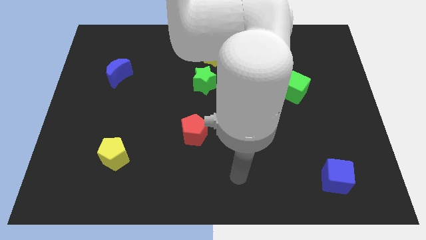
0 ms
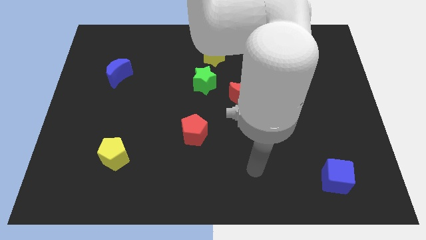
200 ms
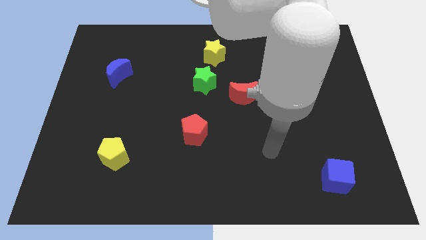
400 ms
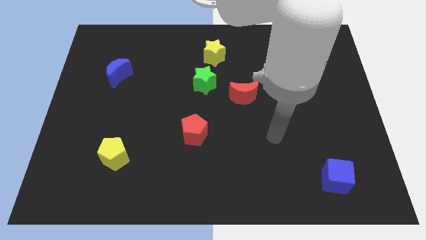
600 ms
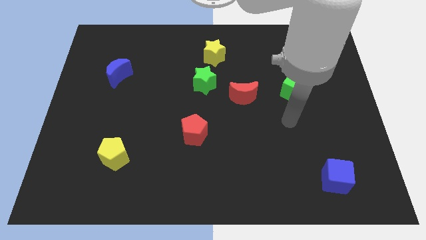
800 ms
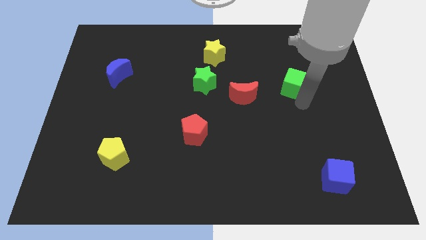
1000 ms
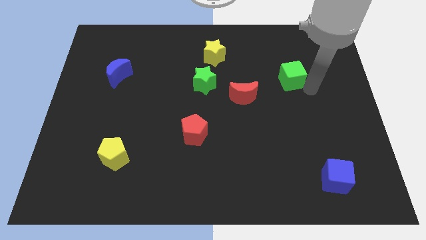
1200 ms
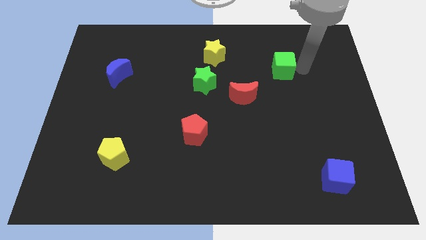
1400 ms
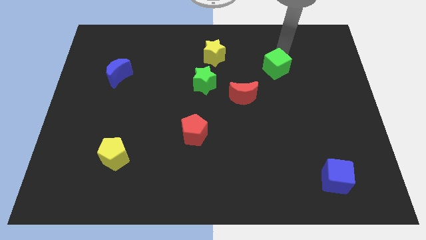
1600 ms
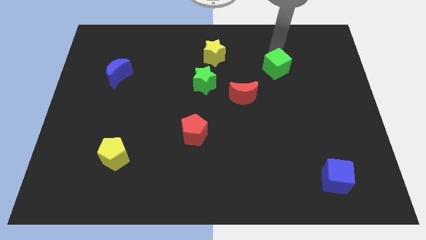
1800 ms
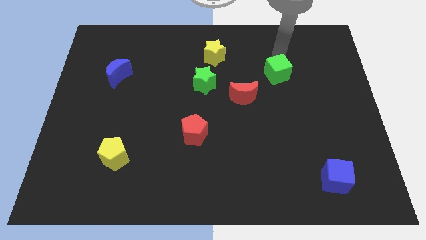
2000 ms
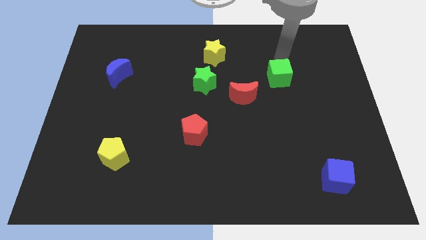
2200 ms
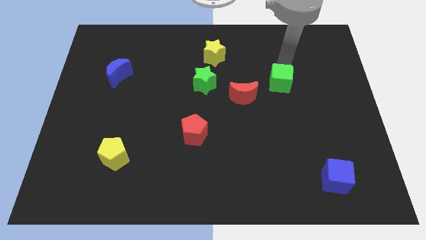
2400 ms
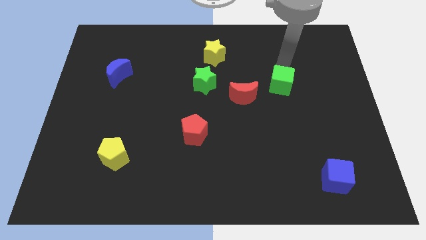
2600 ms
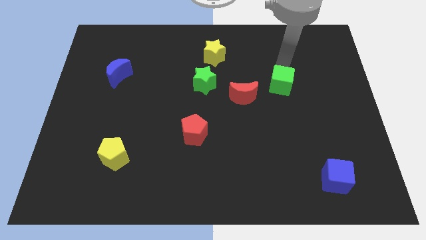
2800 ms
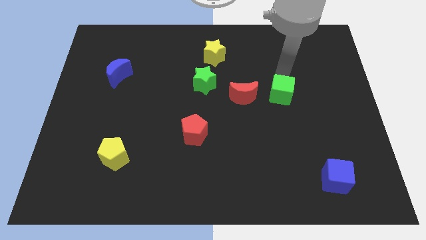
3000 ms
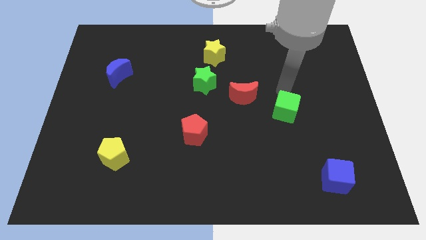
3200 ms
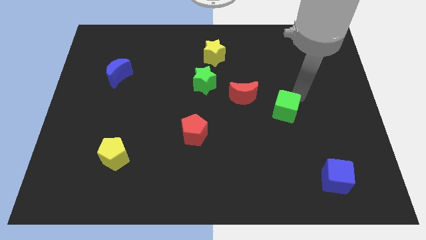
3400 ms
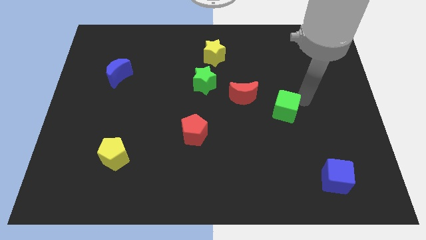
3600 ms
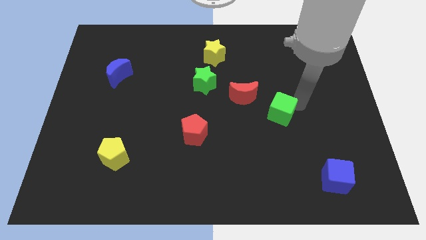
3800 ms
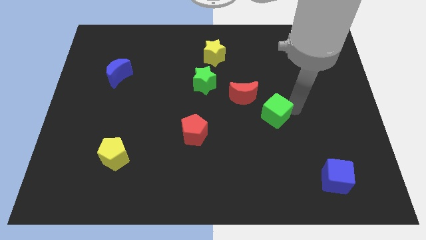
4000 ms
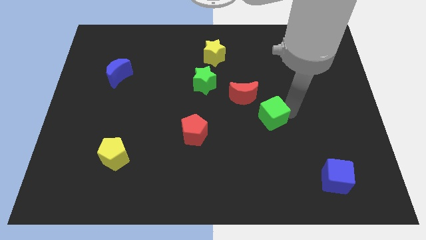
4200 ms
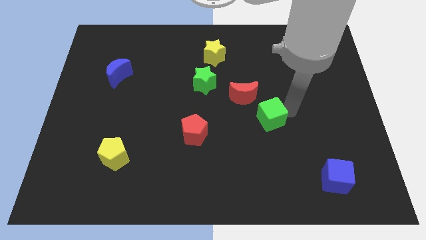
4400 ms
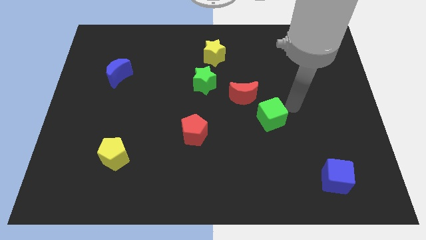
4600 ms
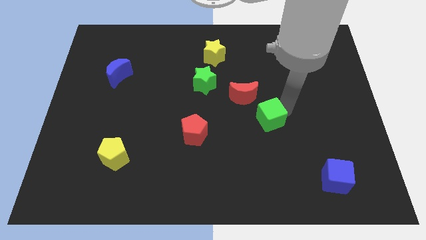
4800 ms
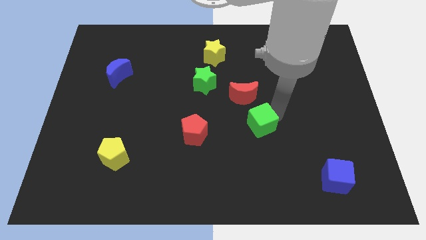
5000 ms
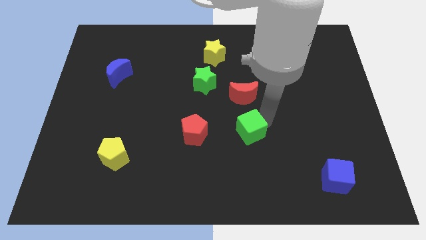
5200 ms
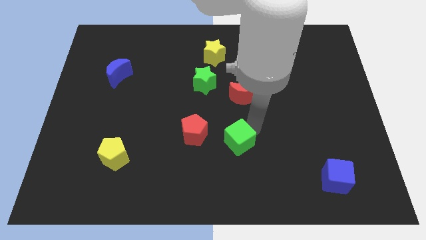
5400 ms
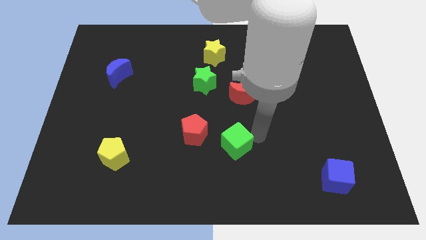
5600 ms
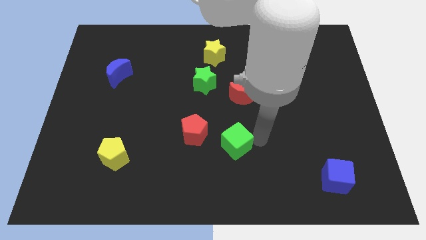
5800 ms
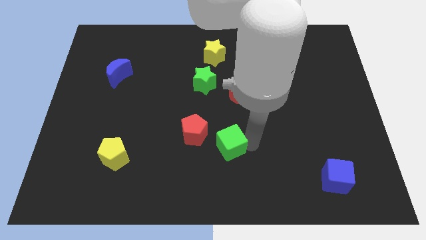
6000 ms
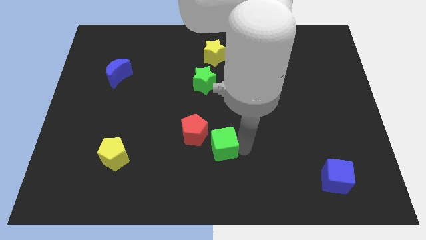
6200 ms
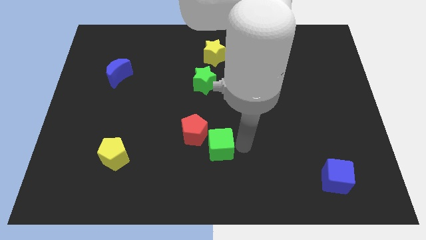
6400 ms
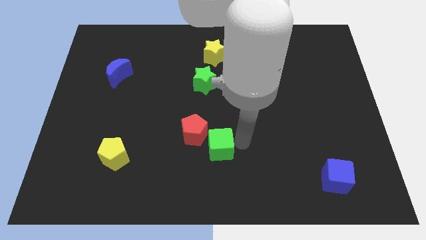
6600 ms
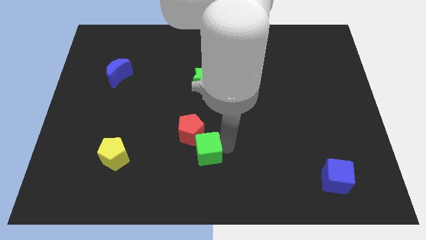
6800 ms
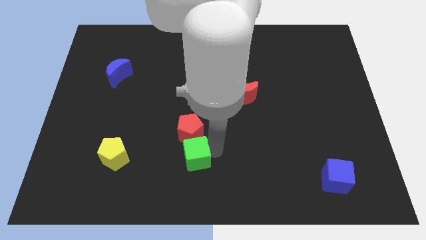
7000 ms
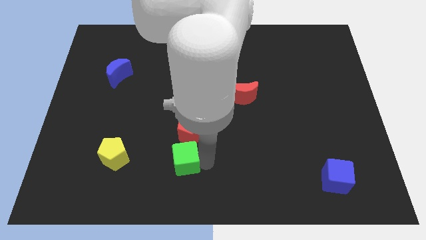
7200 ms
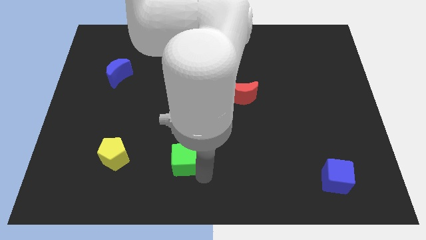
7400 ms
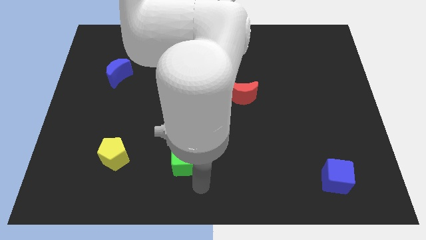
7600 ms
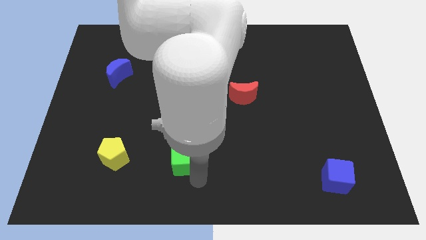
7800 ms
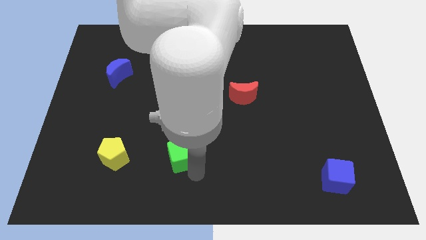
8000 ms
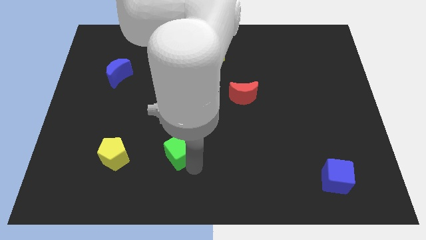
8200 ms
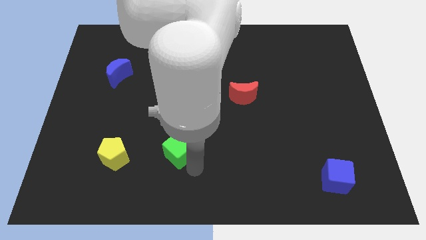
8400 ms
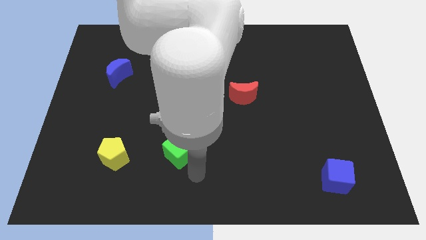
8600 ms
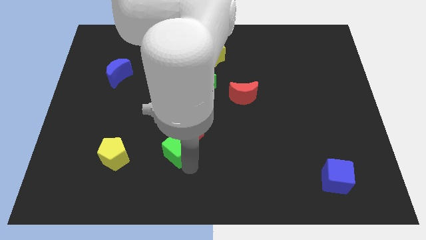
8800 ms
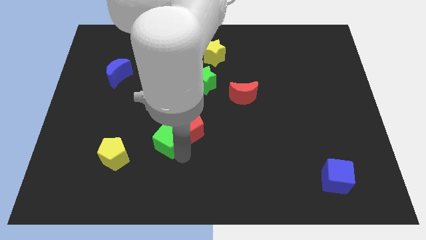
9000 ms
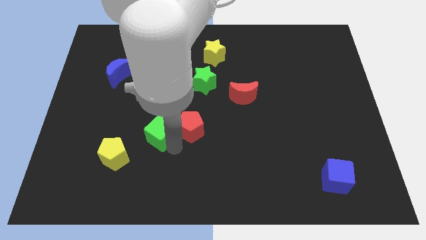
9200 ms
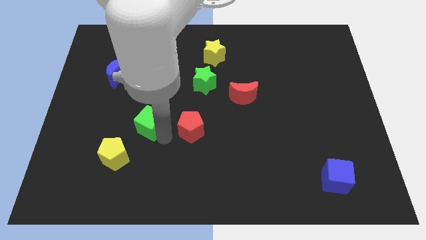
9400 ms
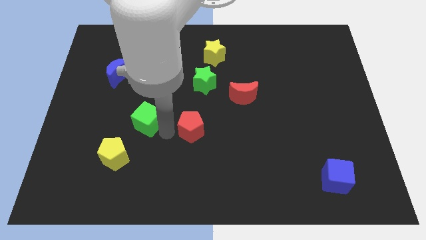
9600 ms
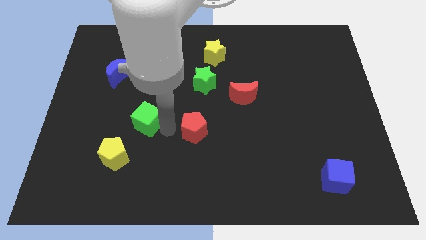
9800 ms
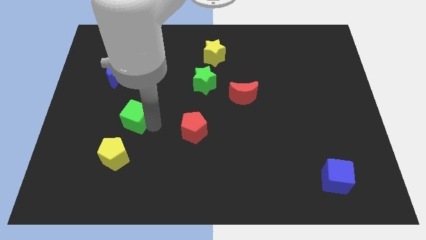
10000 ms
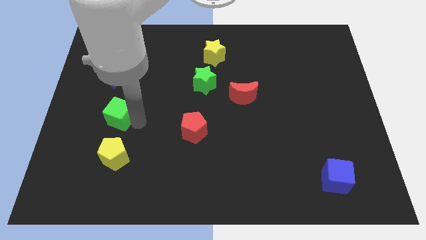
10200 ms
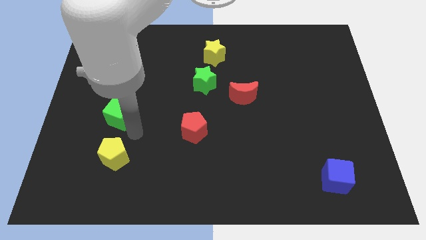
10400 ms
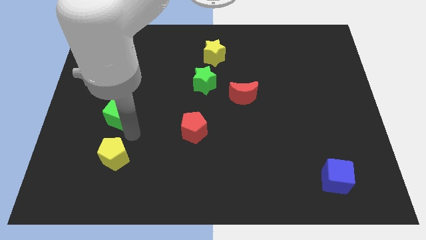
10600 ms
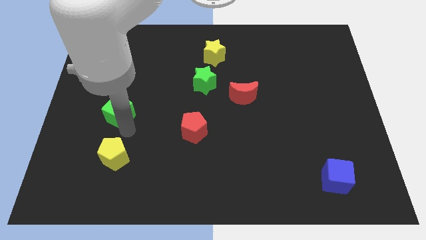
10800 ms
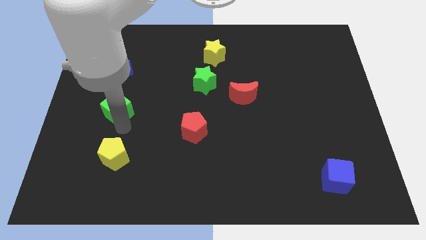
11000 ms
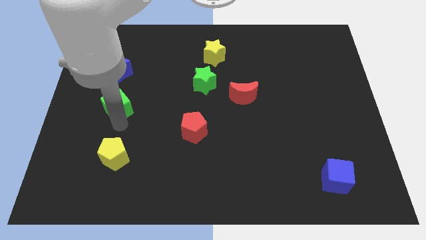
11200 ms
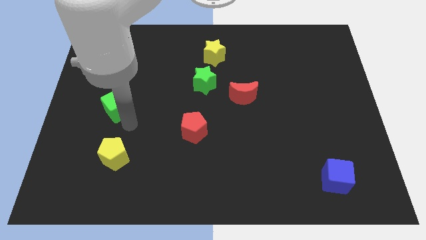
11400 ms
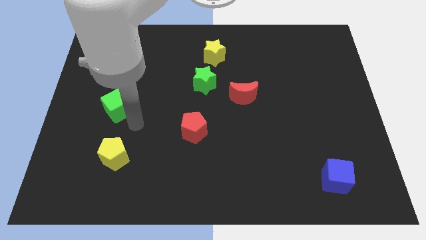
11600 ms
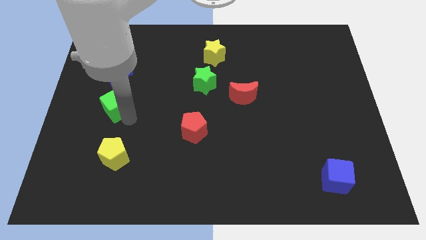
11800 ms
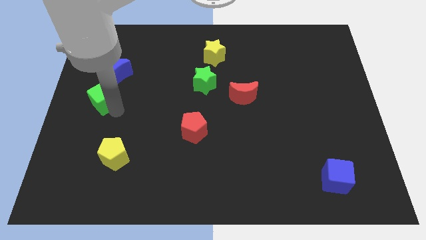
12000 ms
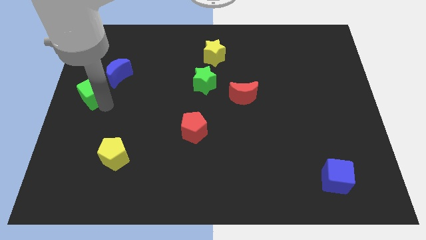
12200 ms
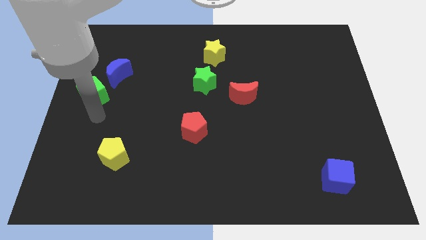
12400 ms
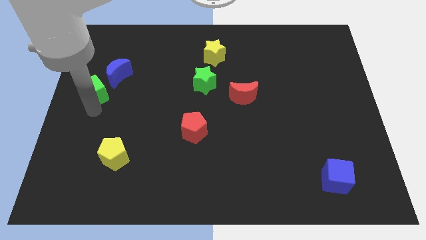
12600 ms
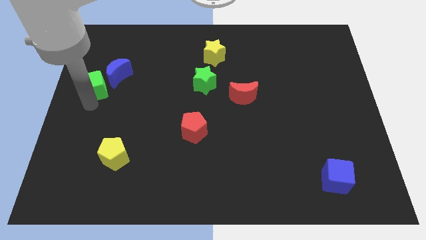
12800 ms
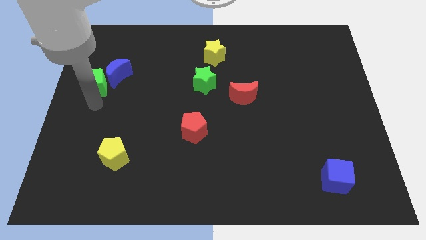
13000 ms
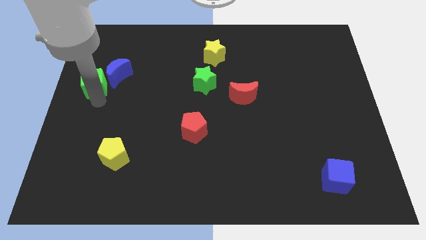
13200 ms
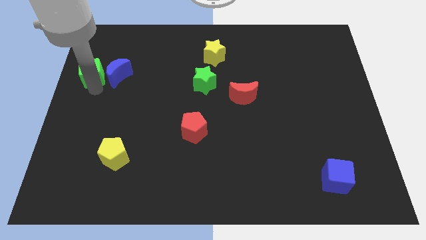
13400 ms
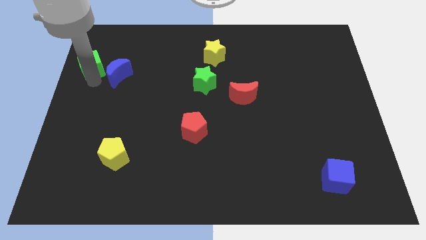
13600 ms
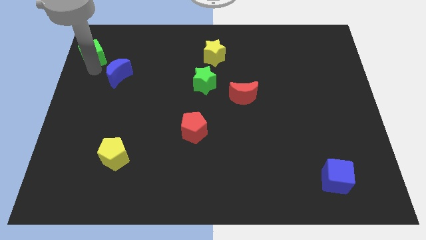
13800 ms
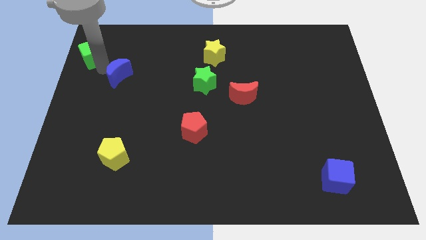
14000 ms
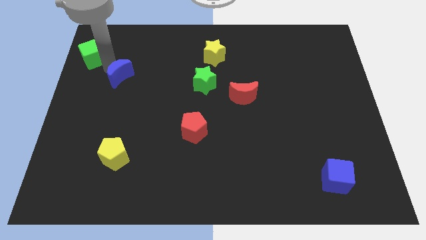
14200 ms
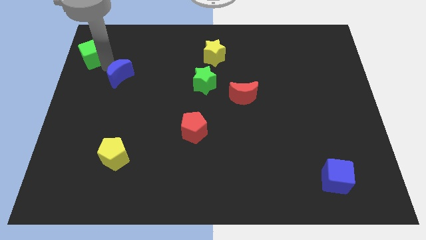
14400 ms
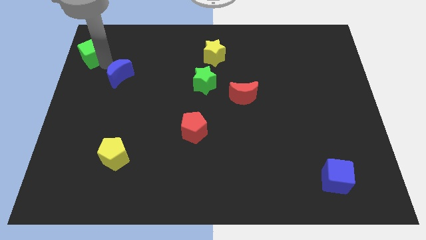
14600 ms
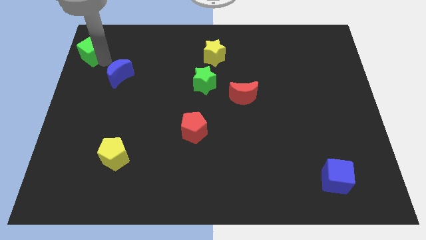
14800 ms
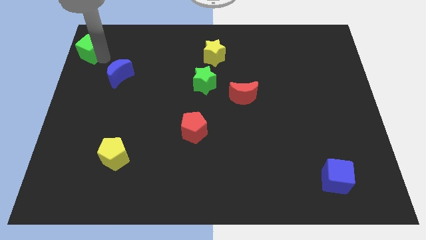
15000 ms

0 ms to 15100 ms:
push the green cube to the top left of the board
